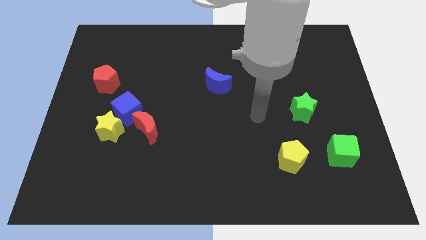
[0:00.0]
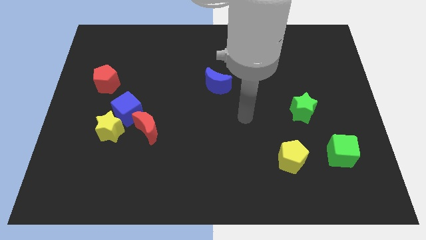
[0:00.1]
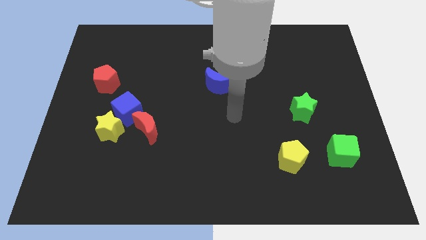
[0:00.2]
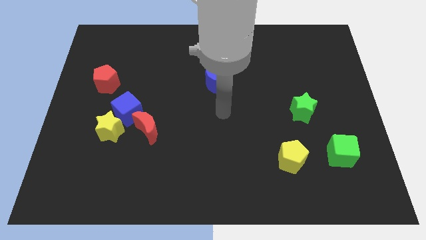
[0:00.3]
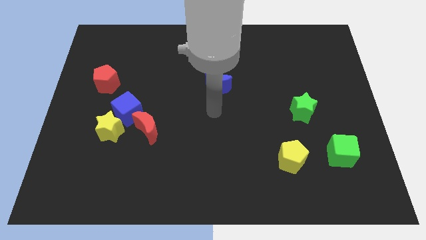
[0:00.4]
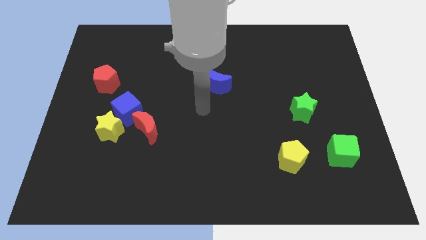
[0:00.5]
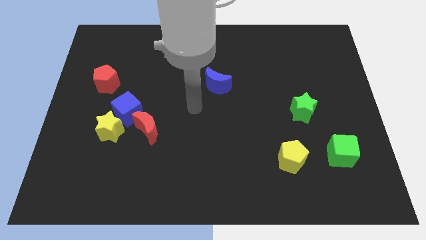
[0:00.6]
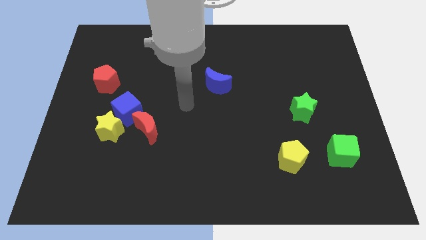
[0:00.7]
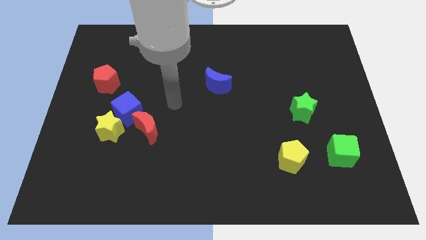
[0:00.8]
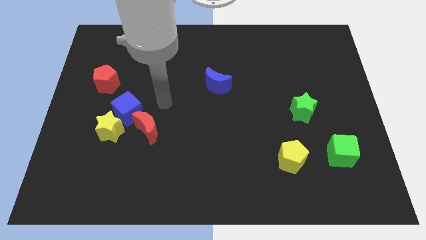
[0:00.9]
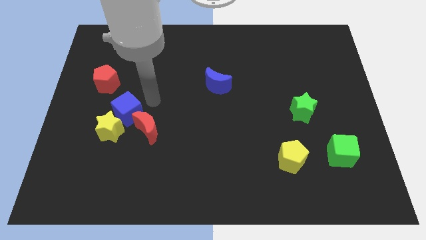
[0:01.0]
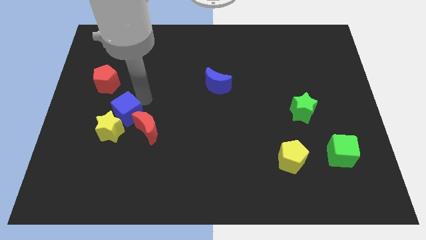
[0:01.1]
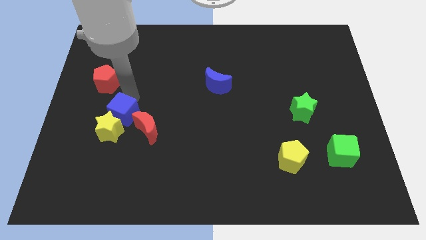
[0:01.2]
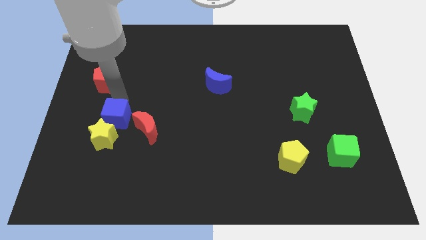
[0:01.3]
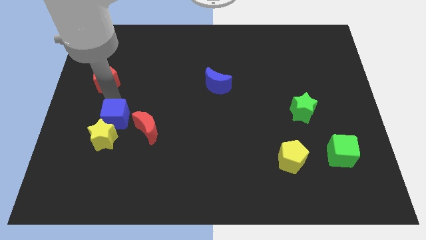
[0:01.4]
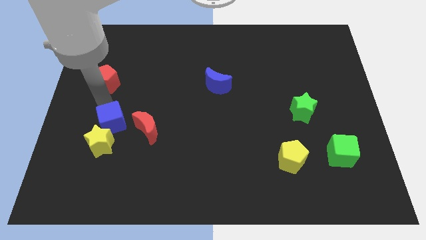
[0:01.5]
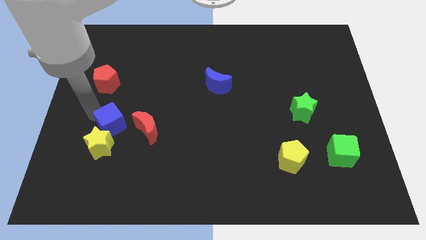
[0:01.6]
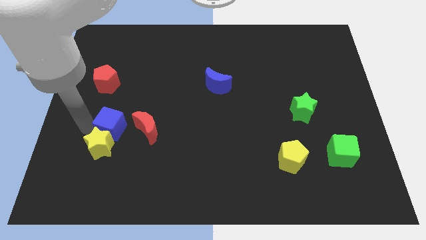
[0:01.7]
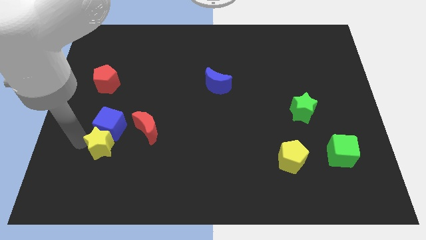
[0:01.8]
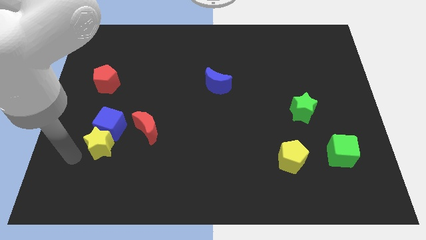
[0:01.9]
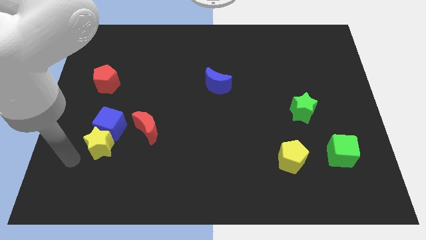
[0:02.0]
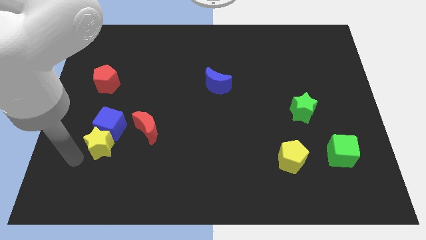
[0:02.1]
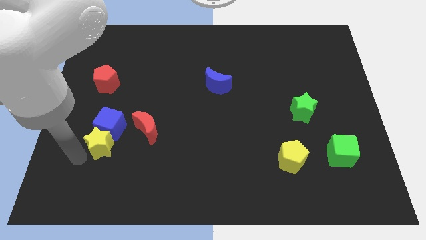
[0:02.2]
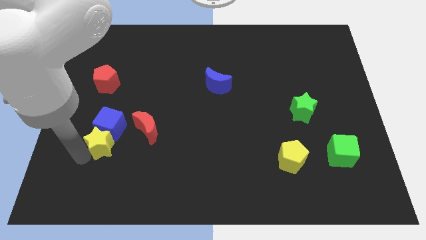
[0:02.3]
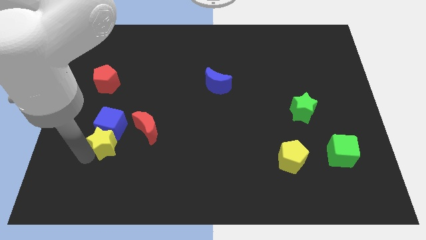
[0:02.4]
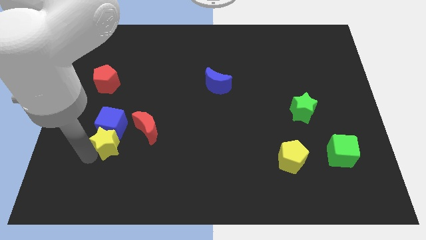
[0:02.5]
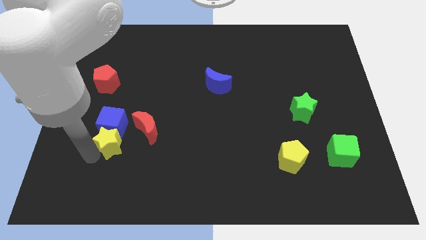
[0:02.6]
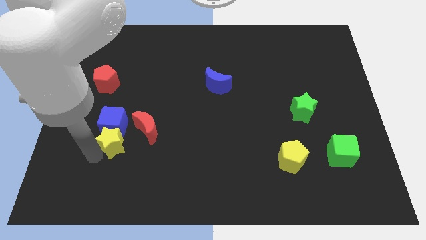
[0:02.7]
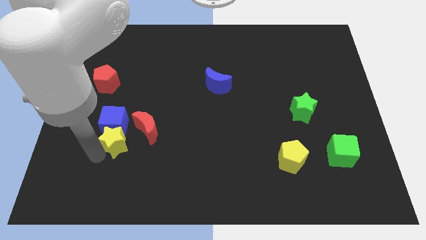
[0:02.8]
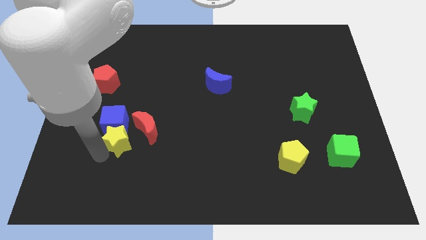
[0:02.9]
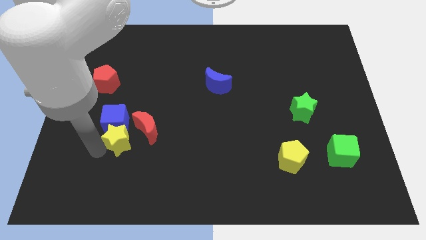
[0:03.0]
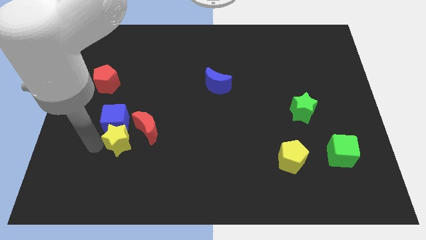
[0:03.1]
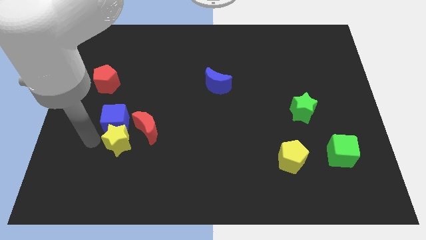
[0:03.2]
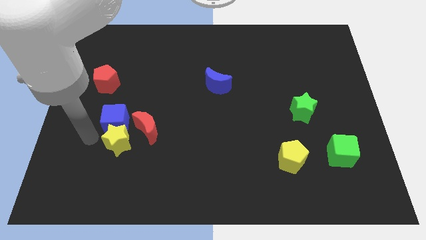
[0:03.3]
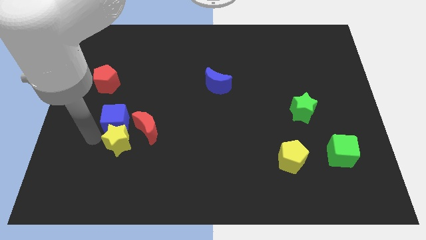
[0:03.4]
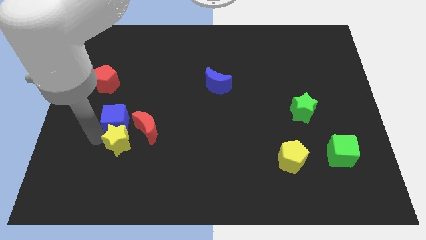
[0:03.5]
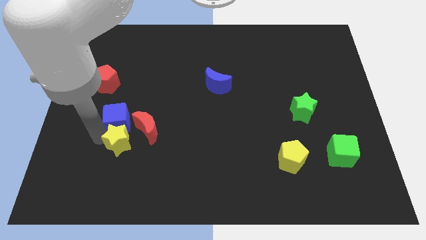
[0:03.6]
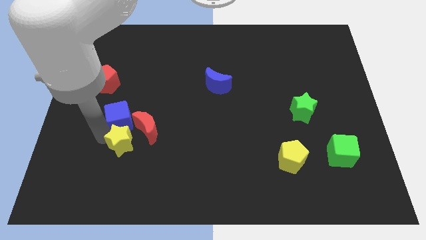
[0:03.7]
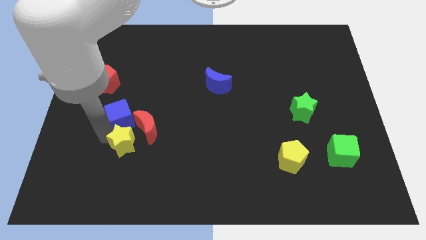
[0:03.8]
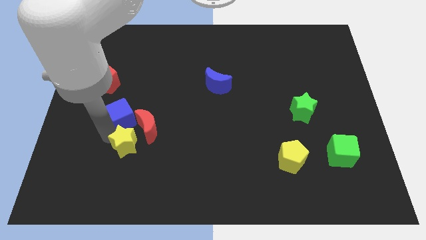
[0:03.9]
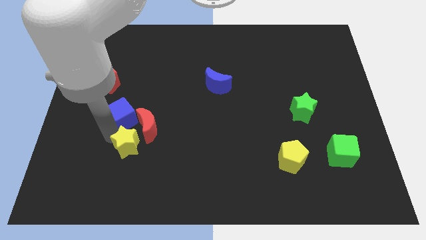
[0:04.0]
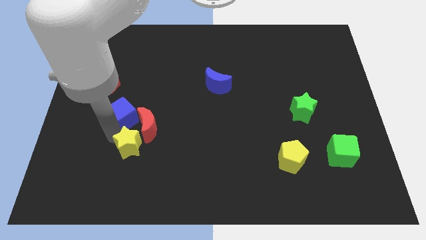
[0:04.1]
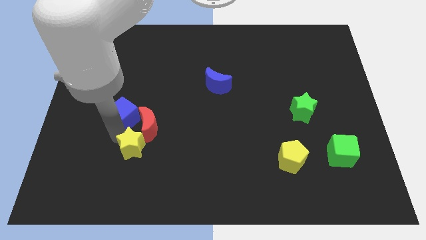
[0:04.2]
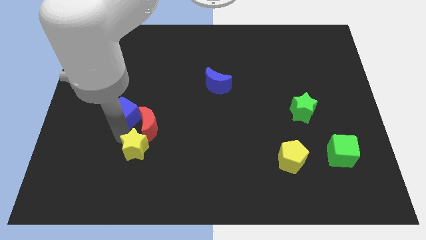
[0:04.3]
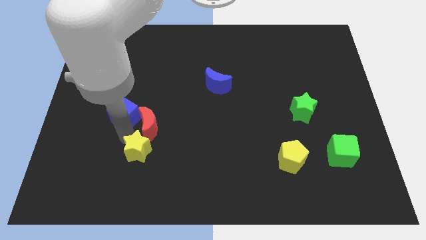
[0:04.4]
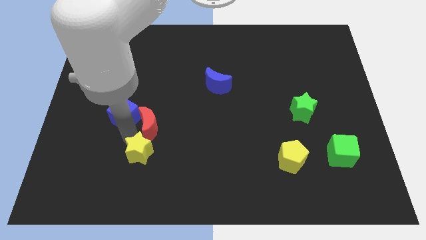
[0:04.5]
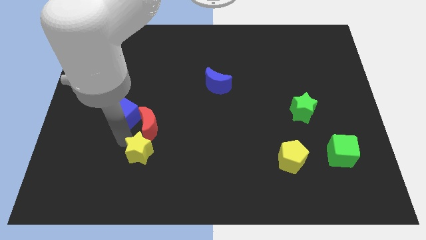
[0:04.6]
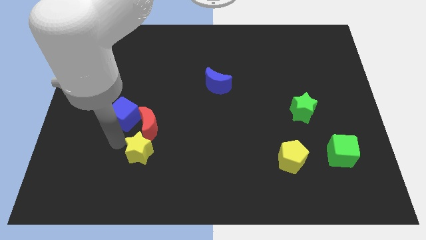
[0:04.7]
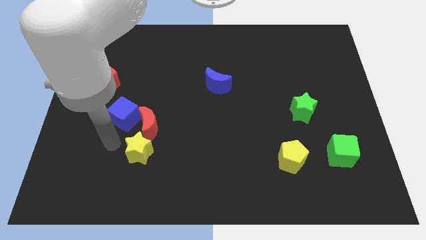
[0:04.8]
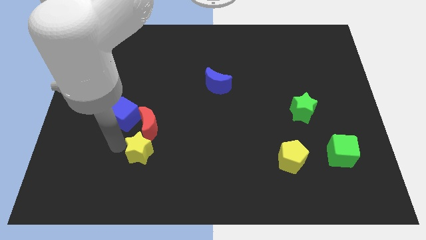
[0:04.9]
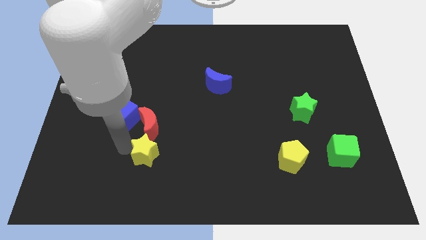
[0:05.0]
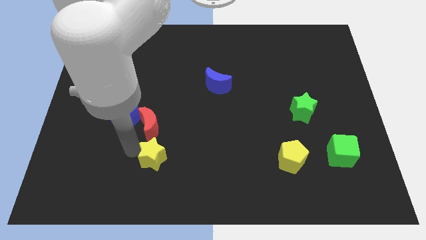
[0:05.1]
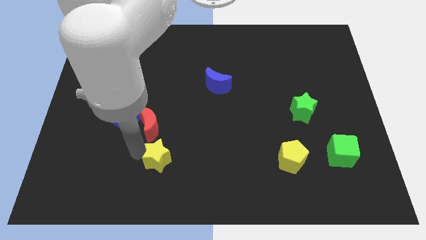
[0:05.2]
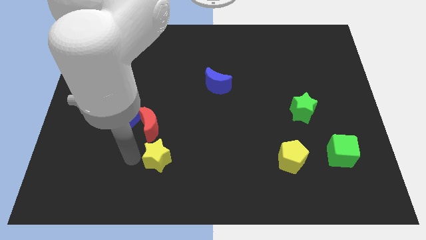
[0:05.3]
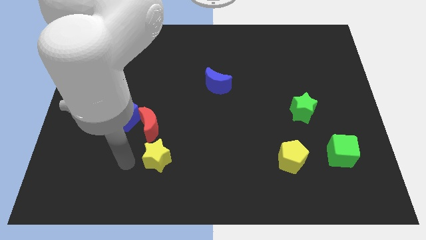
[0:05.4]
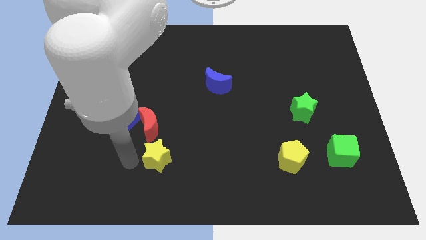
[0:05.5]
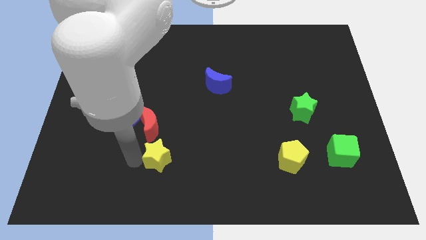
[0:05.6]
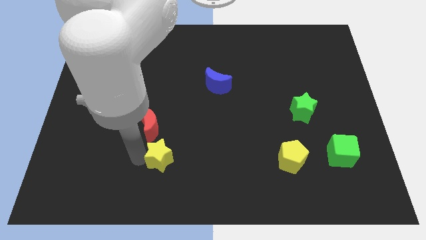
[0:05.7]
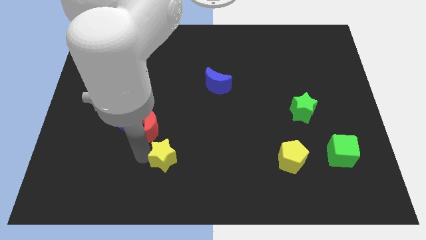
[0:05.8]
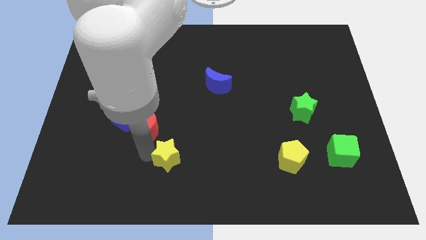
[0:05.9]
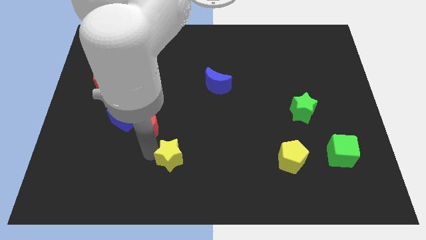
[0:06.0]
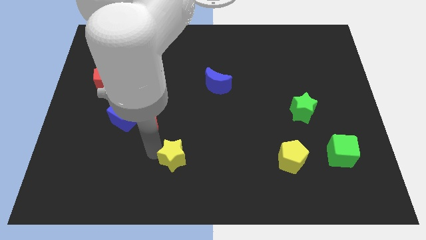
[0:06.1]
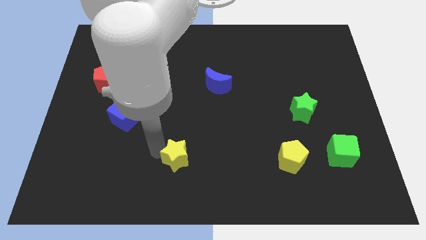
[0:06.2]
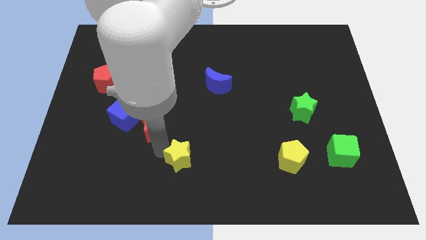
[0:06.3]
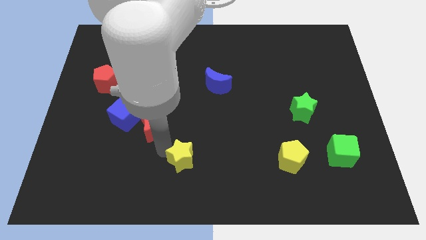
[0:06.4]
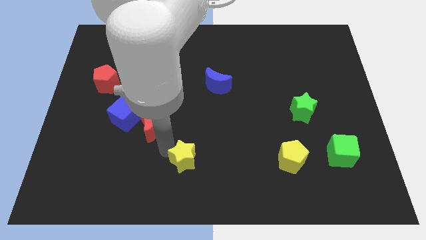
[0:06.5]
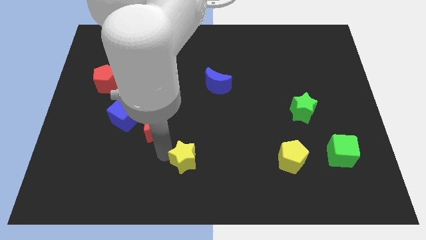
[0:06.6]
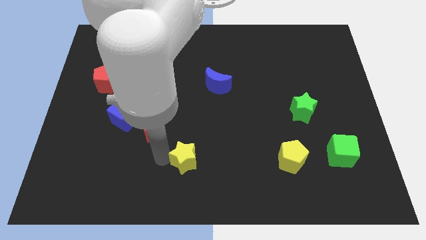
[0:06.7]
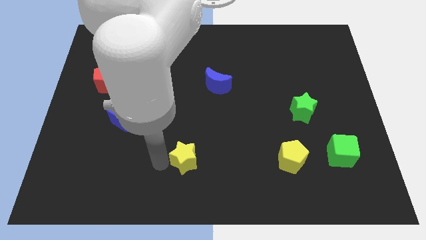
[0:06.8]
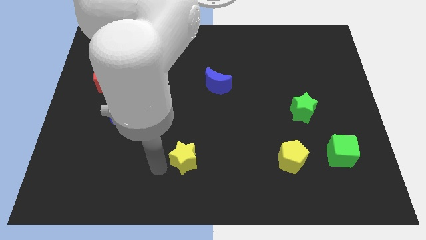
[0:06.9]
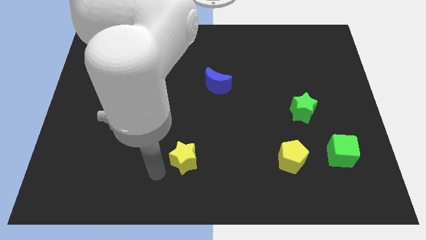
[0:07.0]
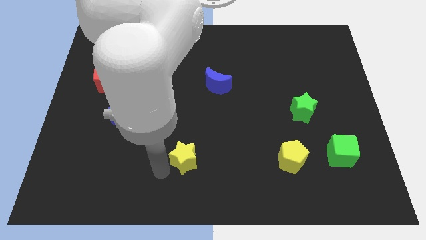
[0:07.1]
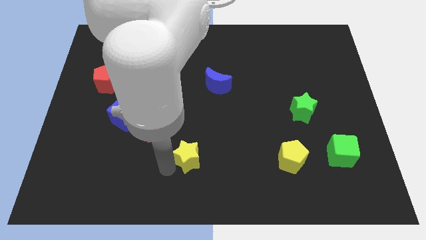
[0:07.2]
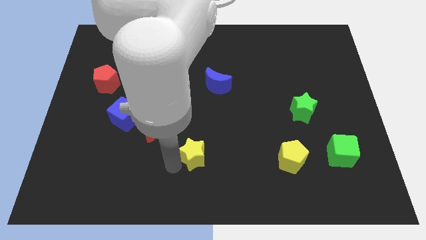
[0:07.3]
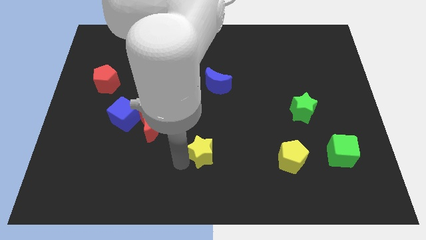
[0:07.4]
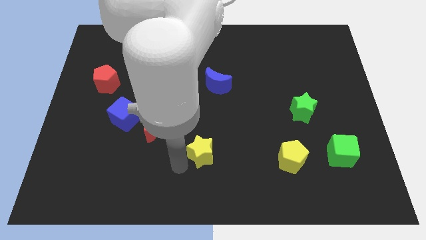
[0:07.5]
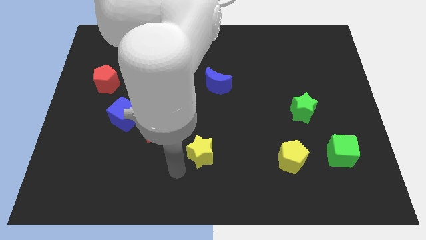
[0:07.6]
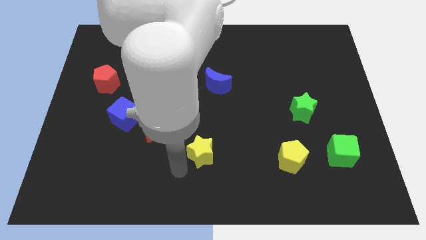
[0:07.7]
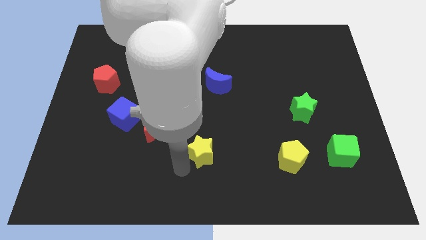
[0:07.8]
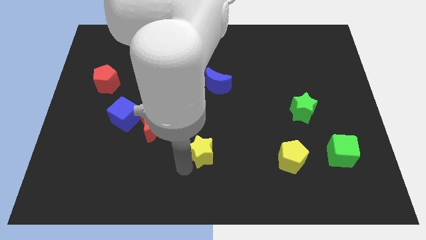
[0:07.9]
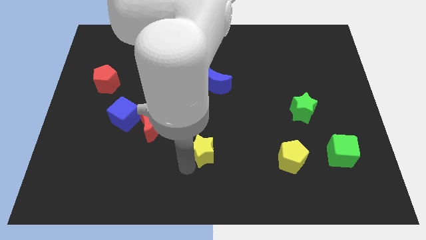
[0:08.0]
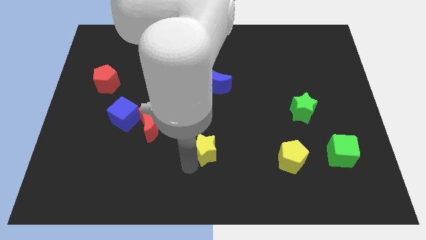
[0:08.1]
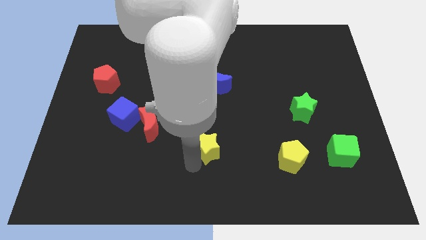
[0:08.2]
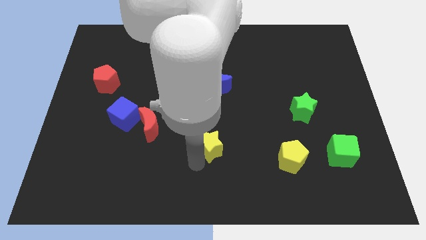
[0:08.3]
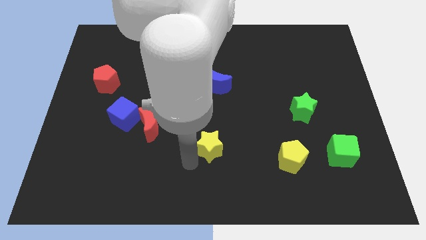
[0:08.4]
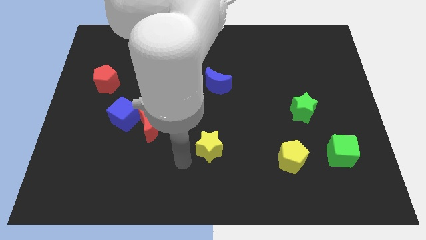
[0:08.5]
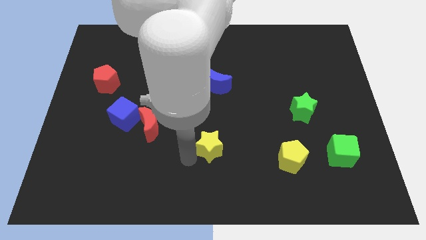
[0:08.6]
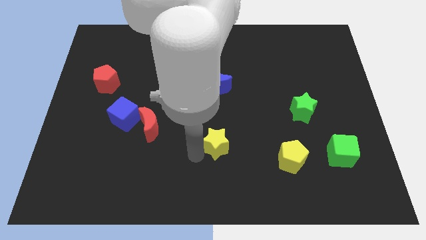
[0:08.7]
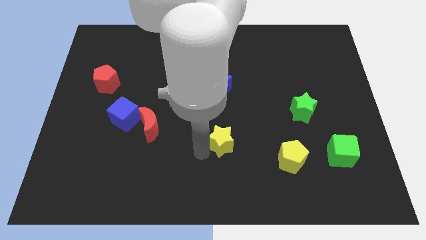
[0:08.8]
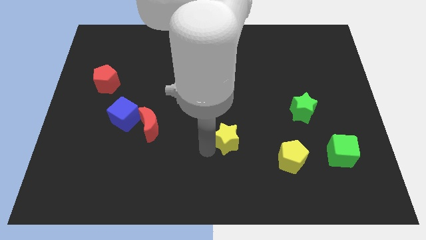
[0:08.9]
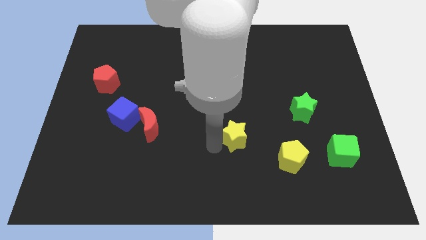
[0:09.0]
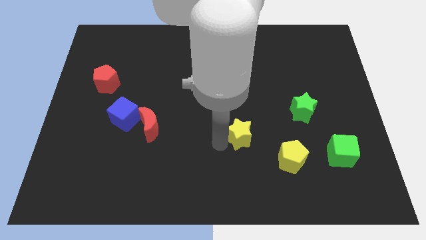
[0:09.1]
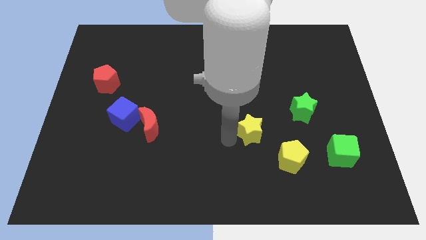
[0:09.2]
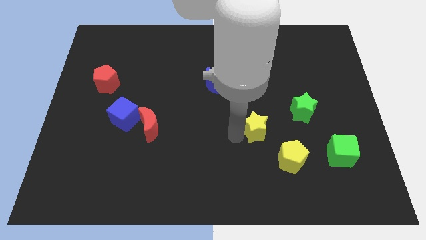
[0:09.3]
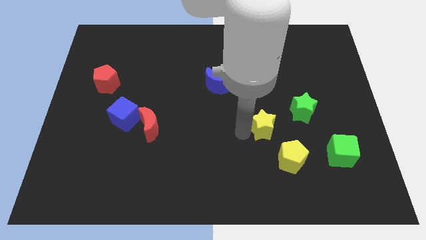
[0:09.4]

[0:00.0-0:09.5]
slide the yellow star diagonally down and to the left of the green star
